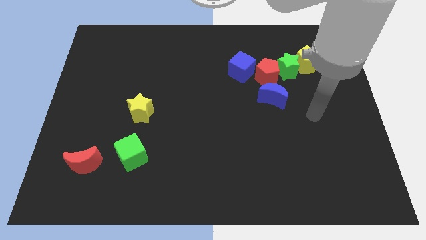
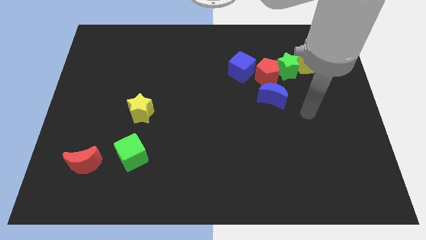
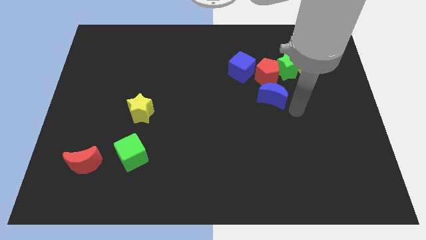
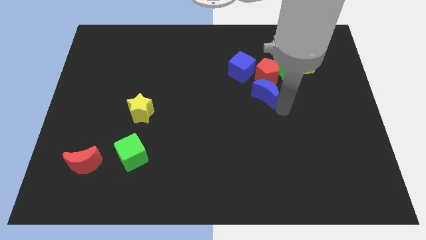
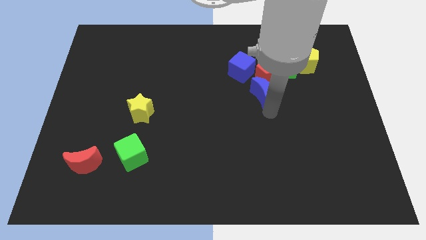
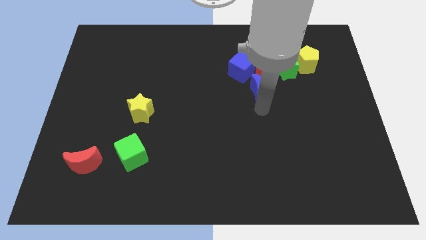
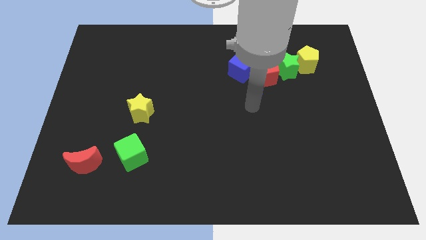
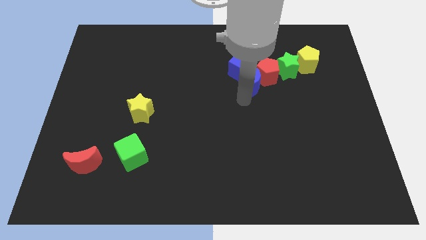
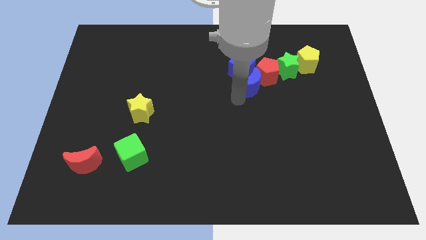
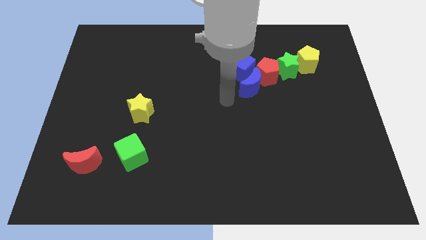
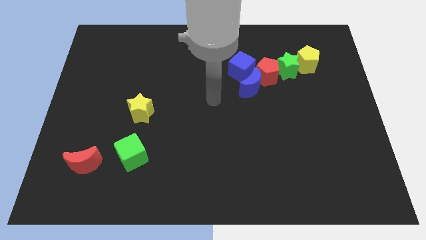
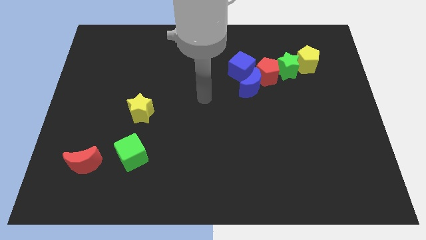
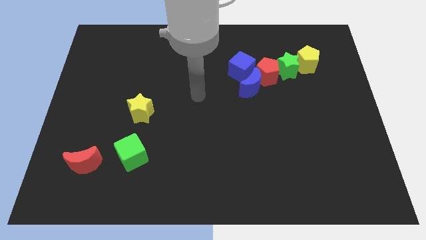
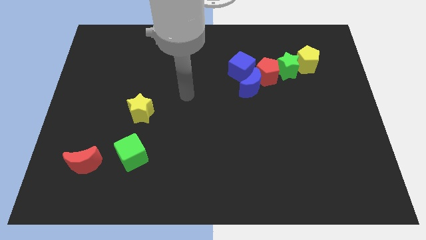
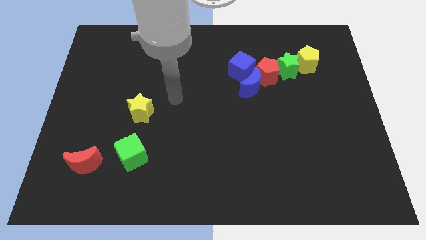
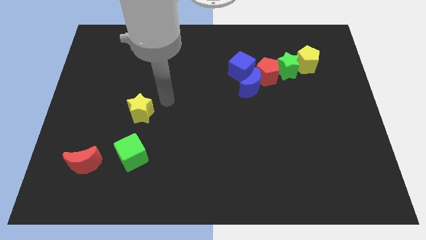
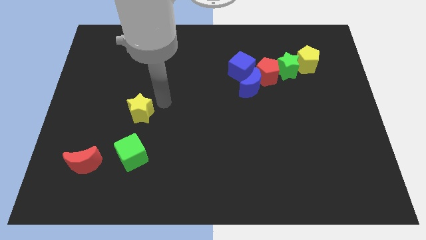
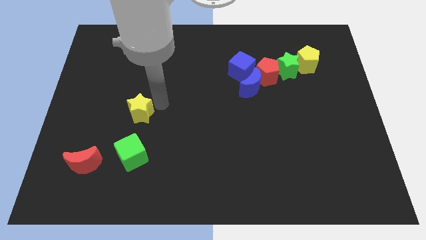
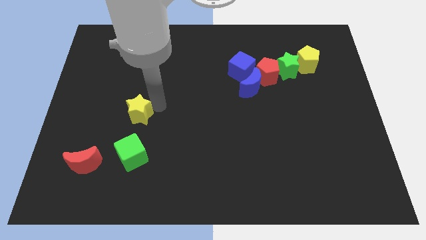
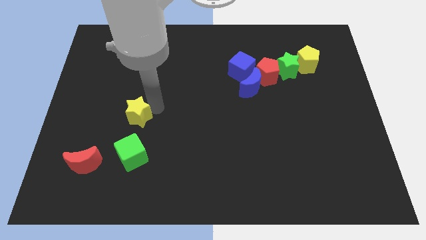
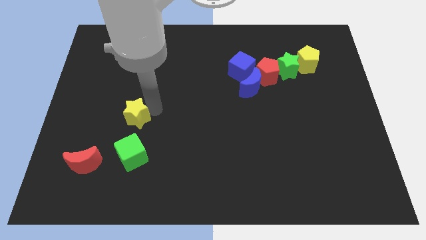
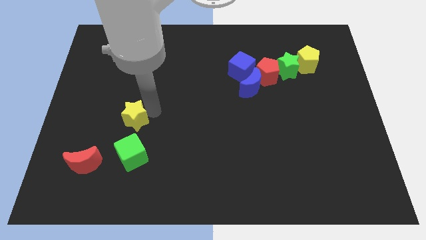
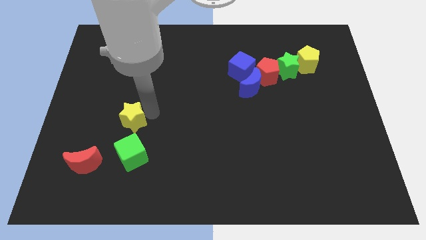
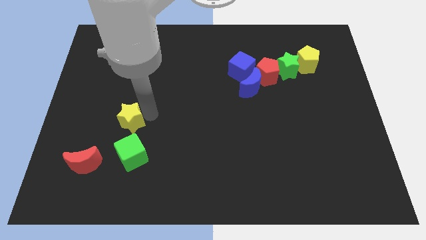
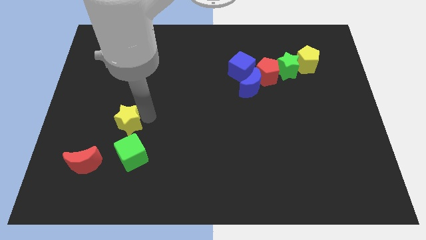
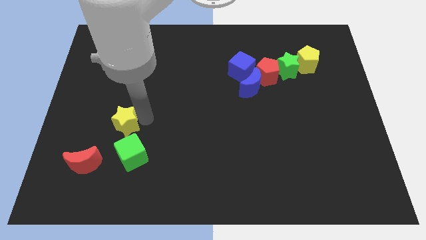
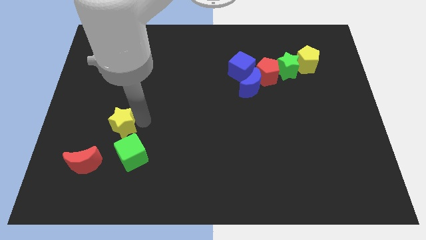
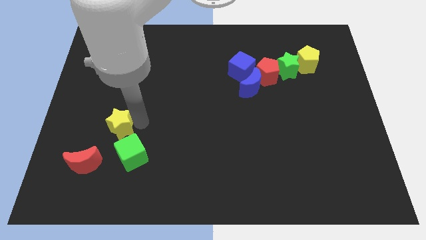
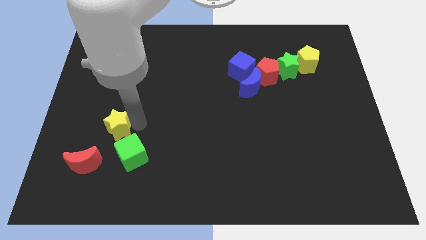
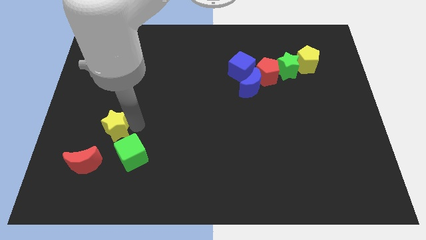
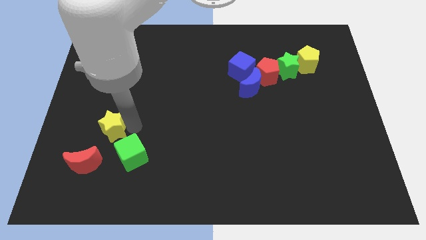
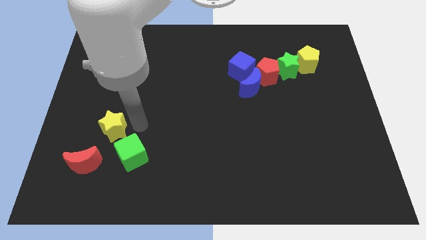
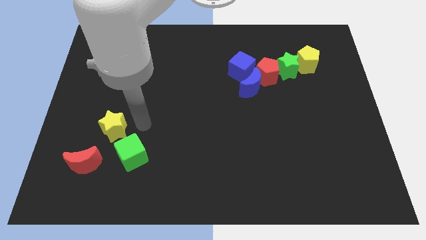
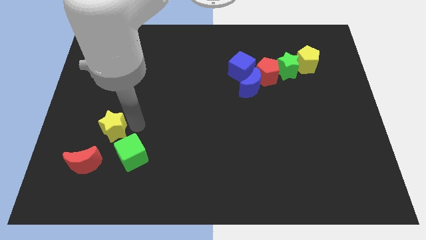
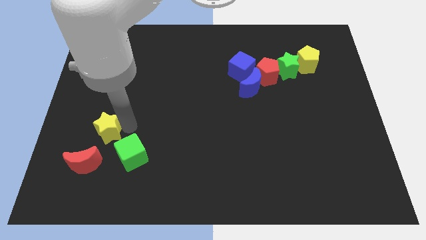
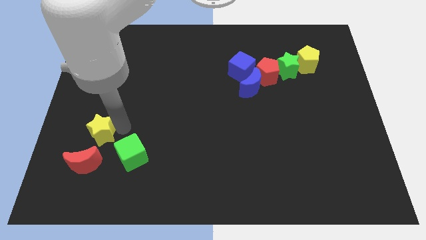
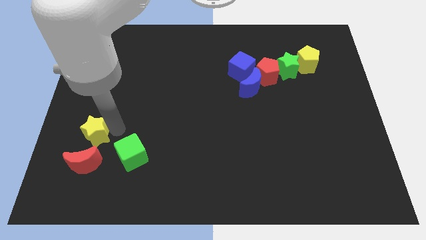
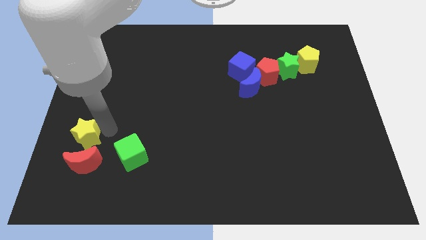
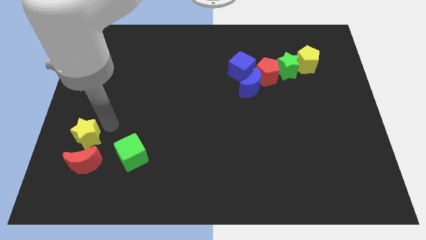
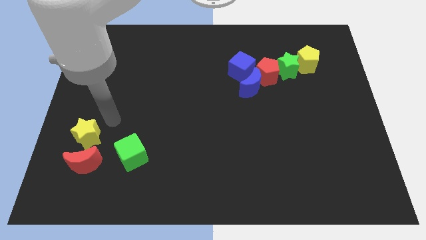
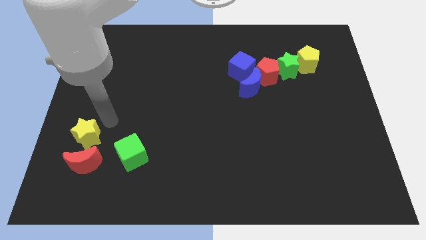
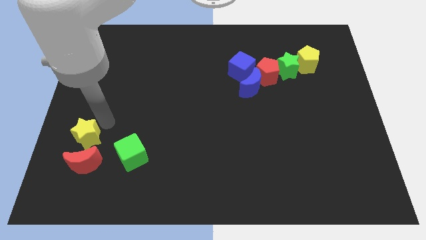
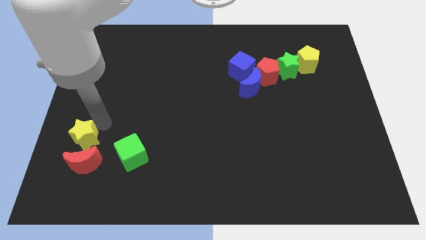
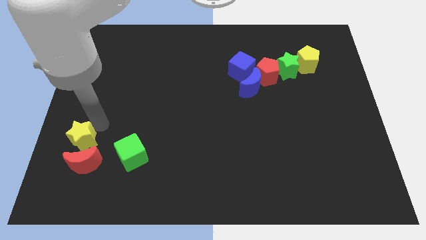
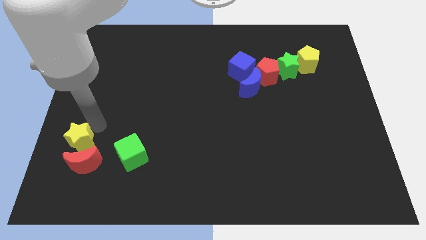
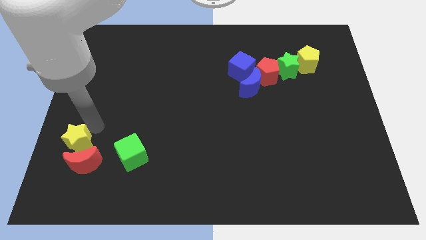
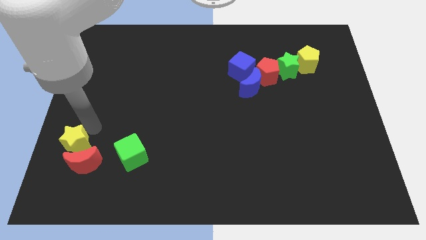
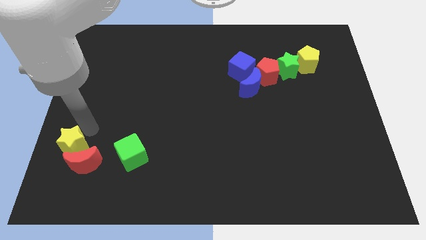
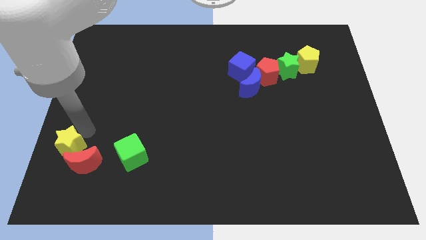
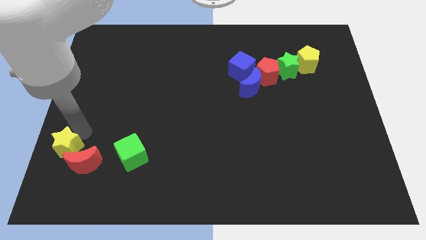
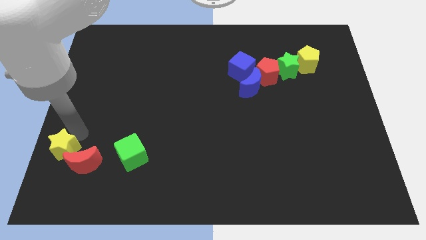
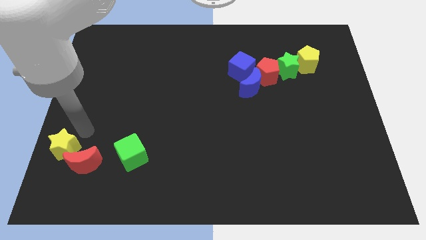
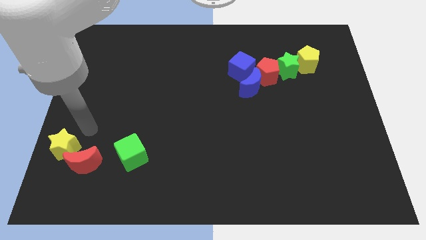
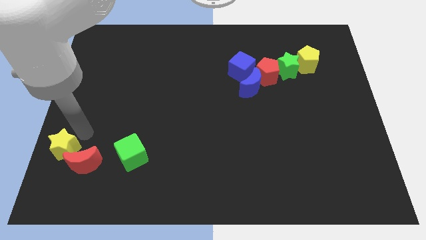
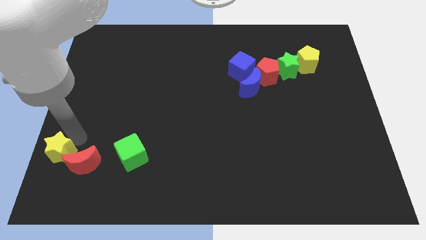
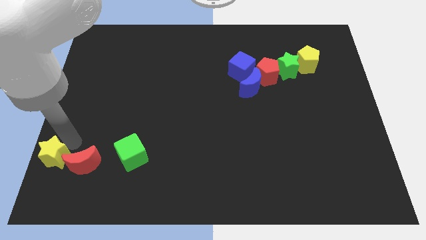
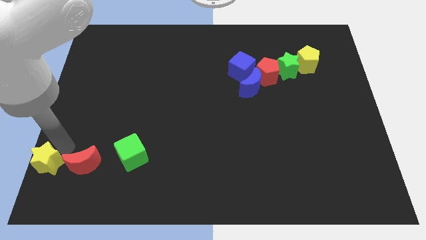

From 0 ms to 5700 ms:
push the yellow star to the bottom left of the board

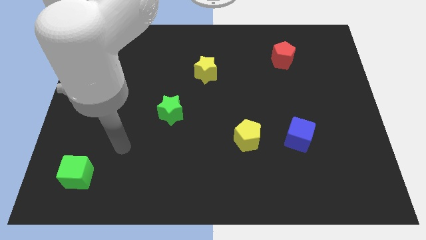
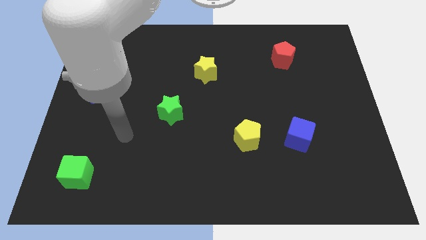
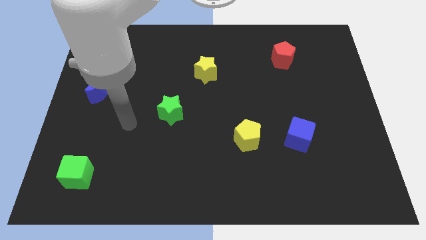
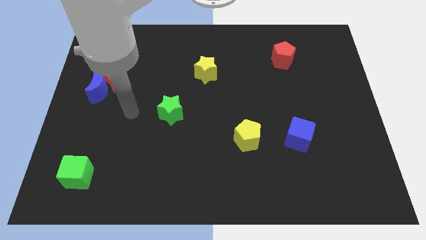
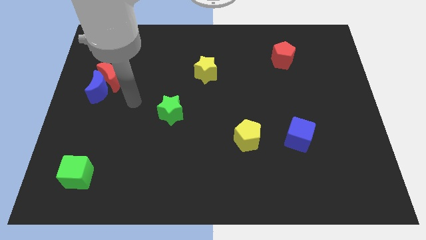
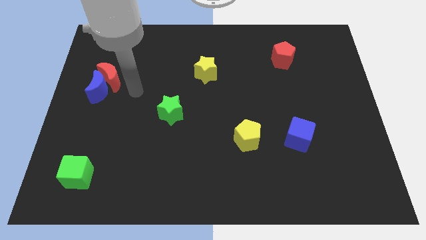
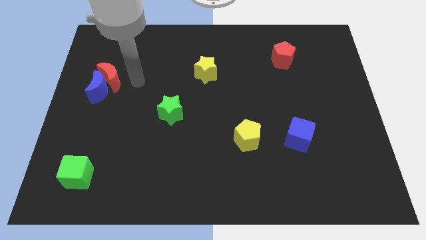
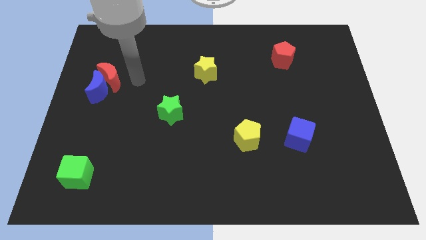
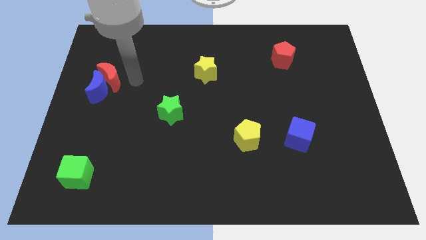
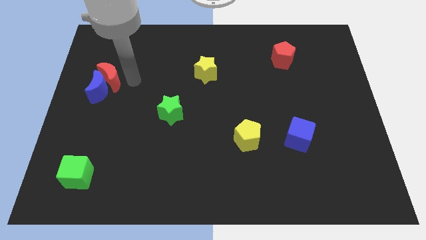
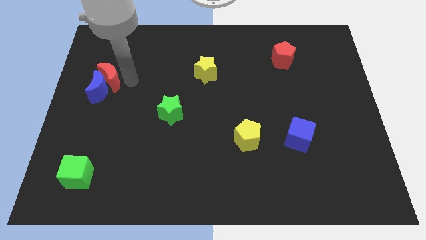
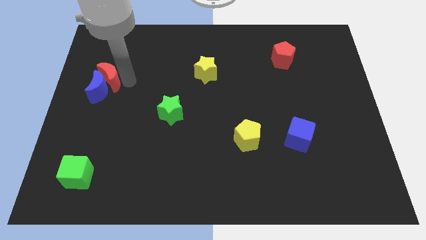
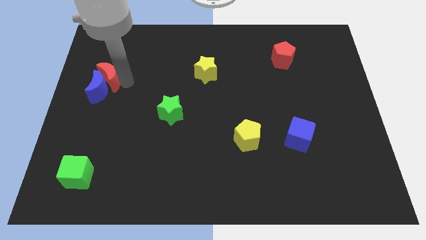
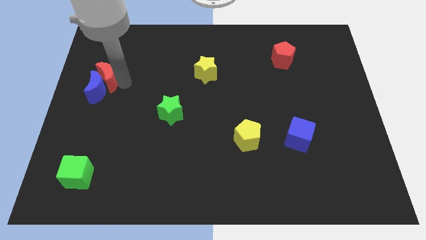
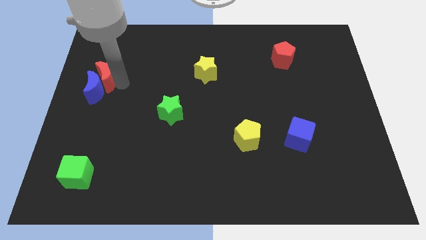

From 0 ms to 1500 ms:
push the red moon to the left side
